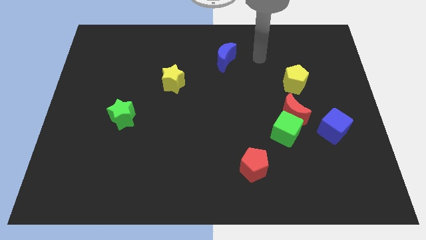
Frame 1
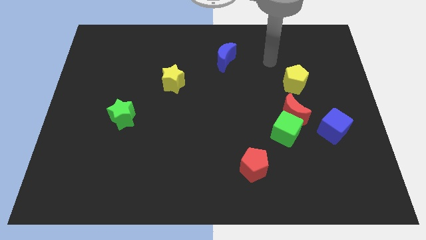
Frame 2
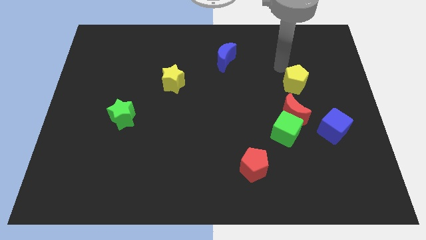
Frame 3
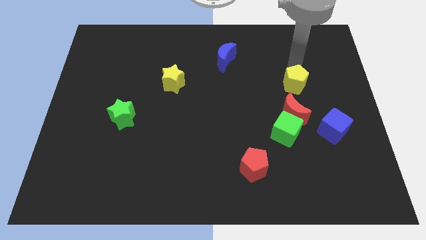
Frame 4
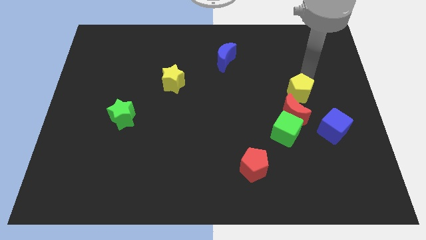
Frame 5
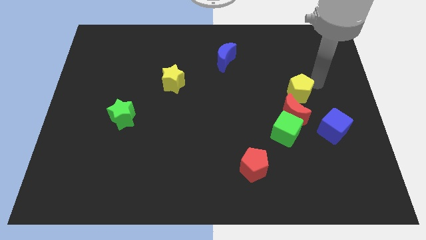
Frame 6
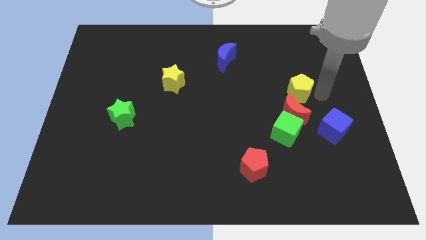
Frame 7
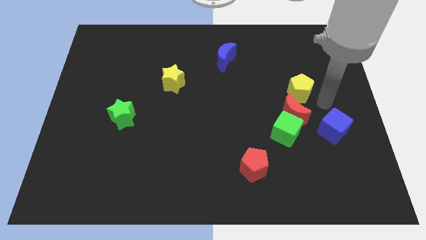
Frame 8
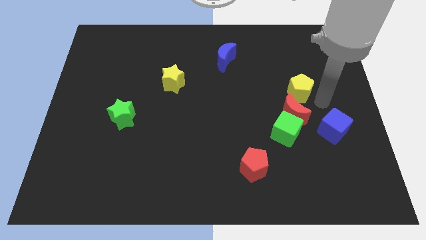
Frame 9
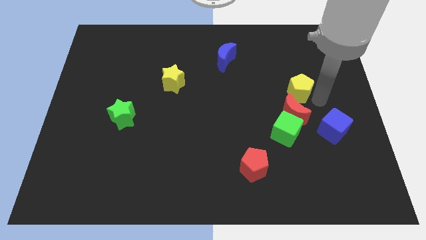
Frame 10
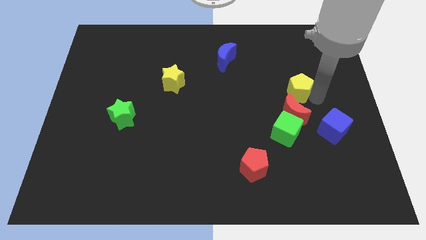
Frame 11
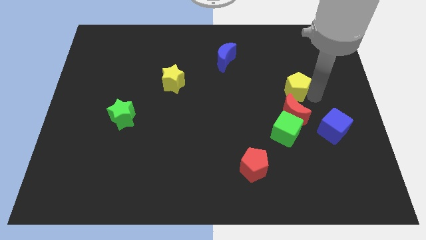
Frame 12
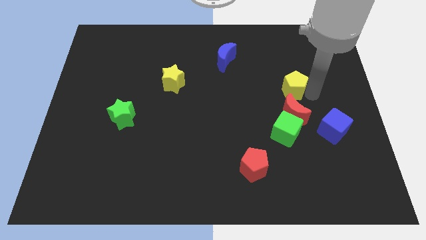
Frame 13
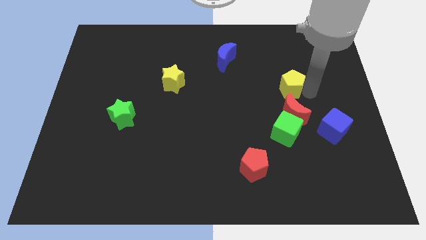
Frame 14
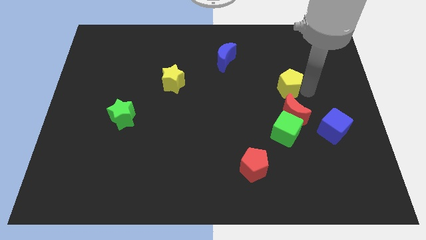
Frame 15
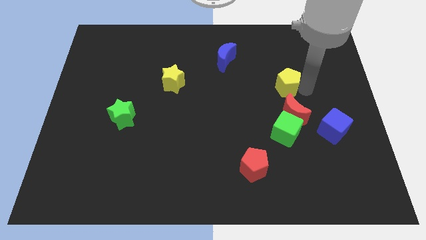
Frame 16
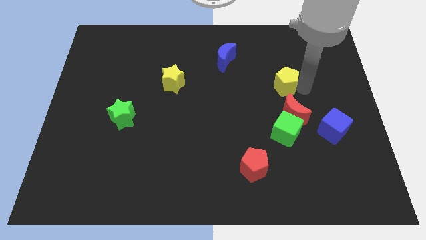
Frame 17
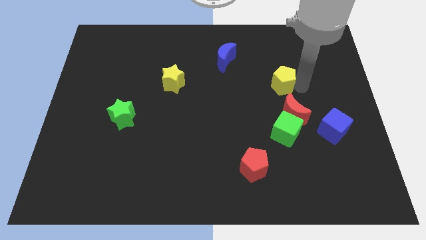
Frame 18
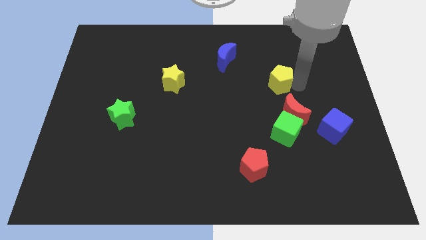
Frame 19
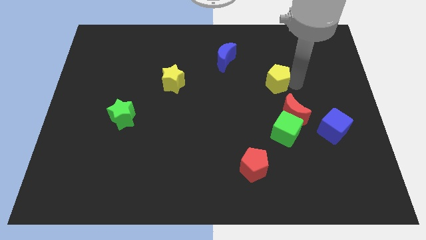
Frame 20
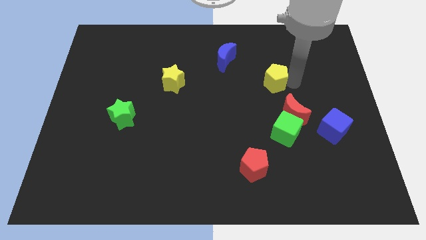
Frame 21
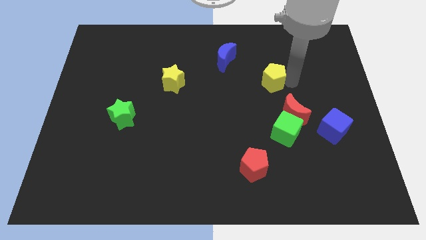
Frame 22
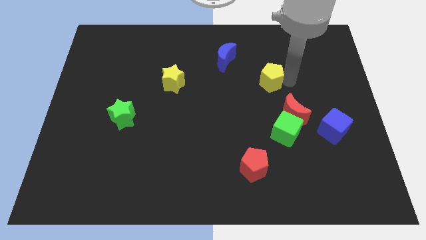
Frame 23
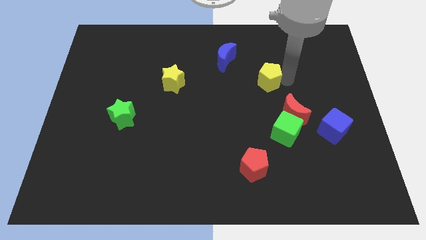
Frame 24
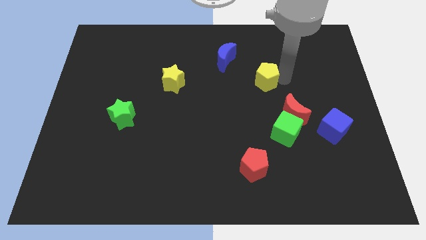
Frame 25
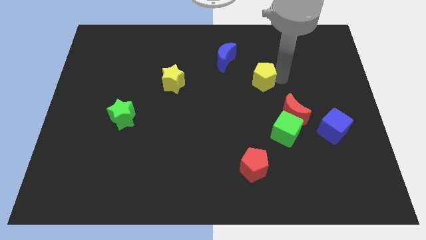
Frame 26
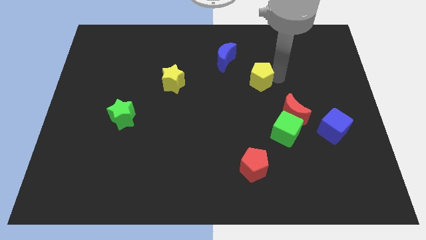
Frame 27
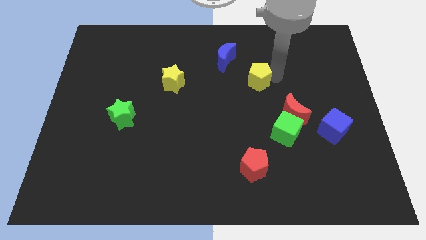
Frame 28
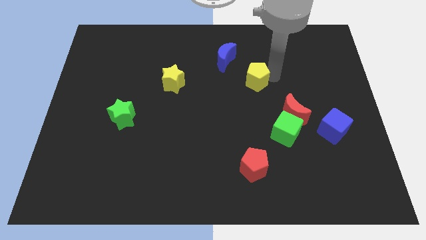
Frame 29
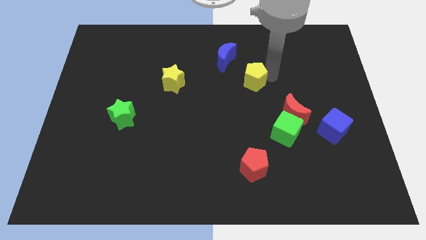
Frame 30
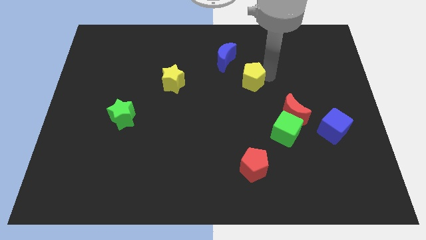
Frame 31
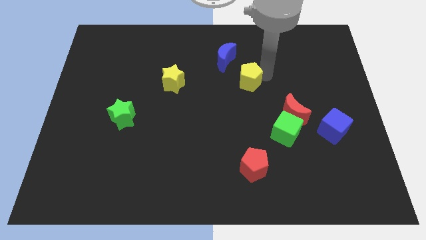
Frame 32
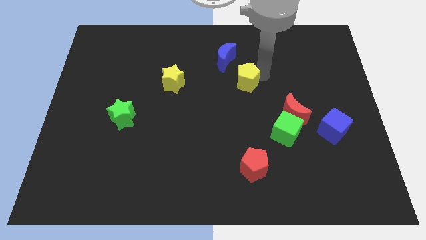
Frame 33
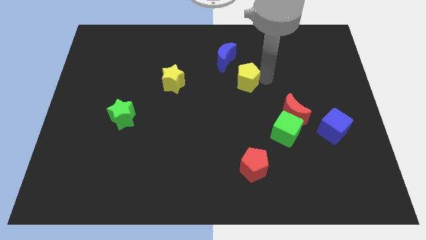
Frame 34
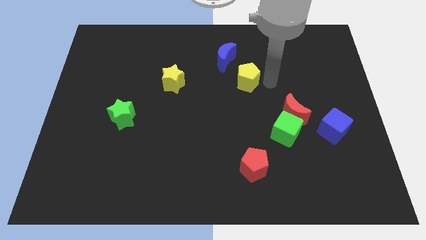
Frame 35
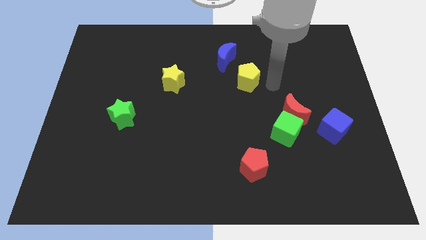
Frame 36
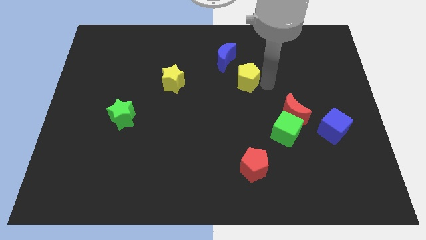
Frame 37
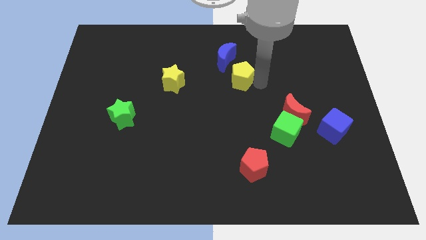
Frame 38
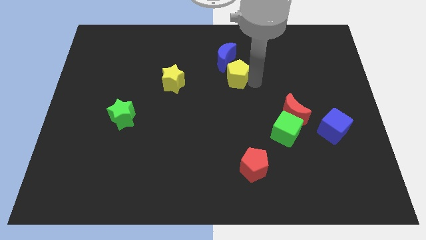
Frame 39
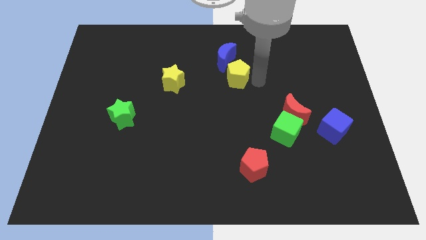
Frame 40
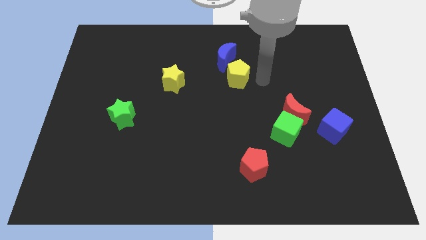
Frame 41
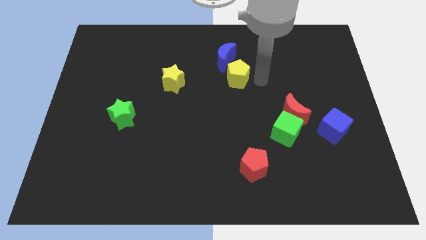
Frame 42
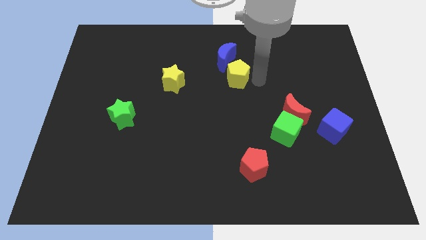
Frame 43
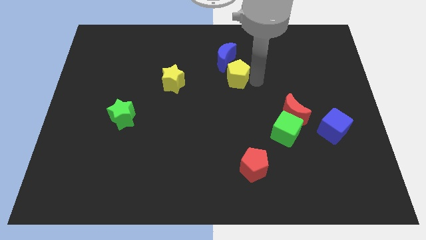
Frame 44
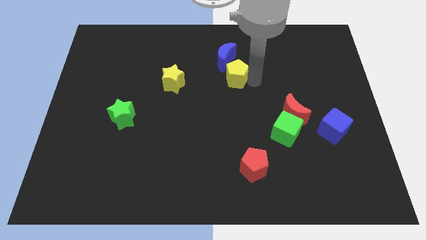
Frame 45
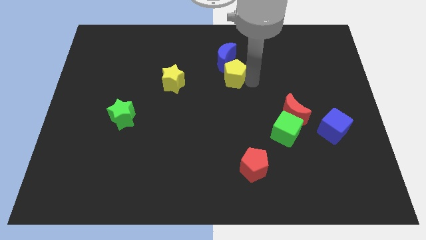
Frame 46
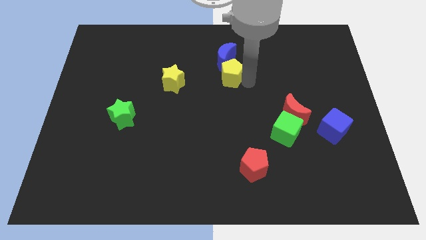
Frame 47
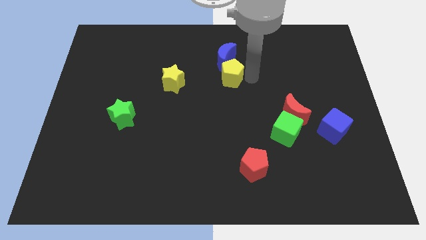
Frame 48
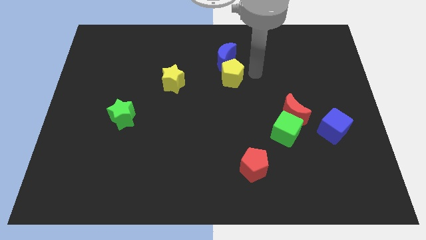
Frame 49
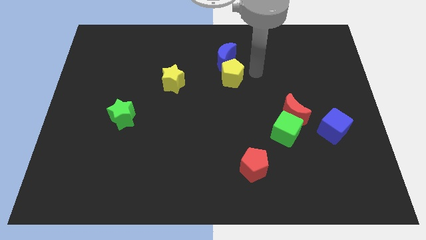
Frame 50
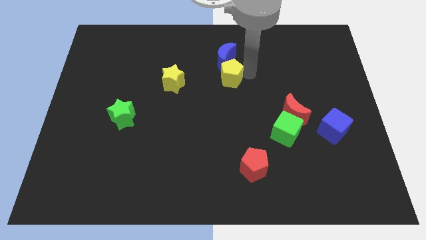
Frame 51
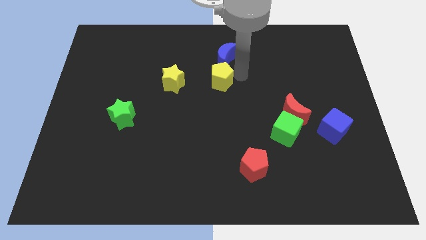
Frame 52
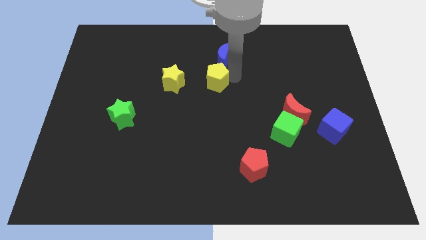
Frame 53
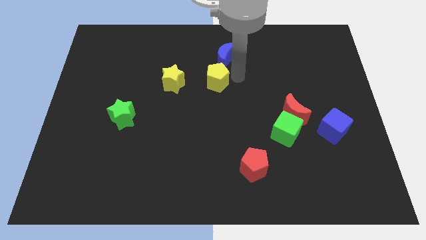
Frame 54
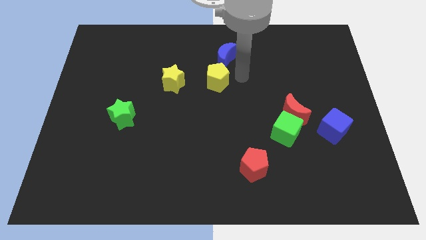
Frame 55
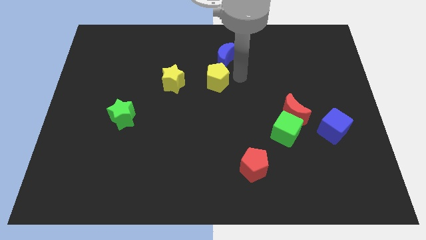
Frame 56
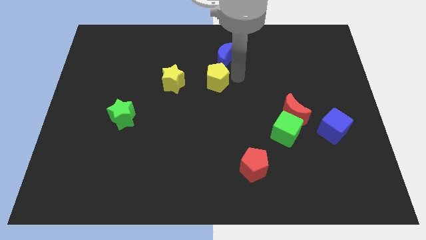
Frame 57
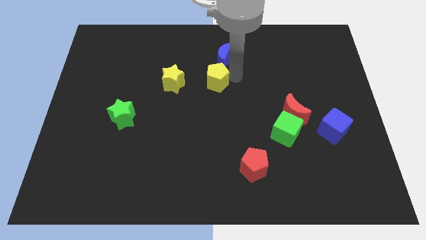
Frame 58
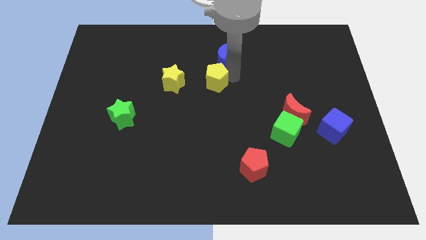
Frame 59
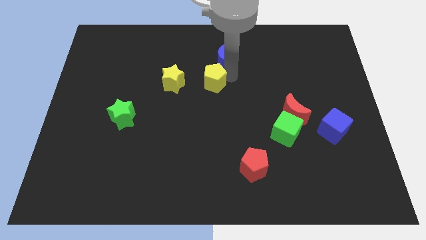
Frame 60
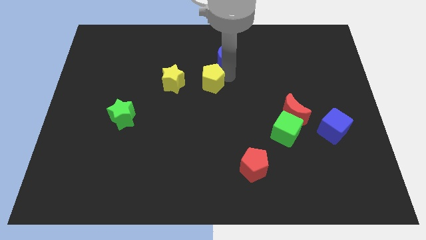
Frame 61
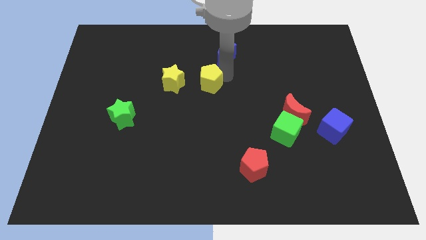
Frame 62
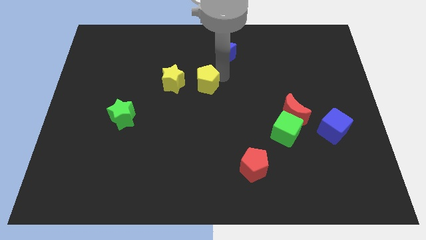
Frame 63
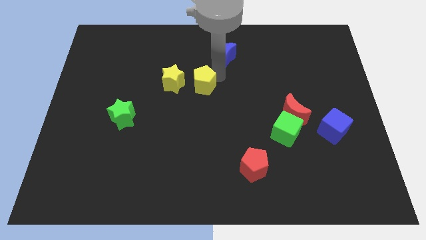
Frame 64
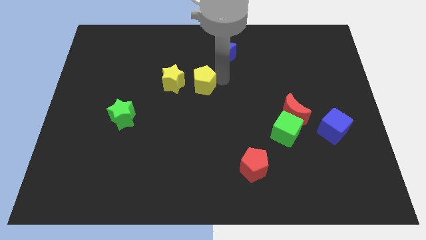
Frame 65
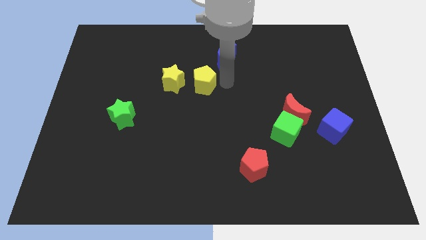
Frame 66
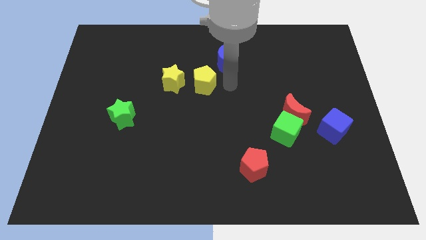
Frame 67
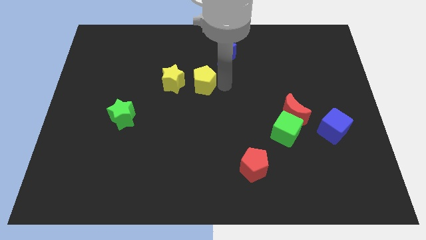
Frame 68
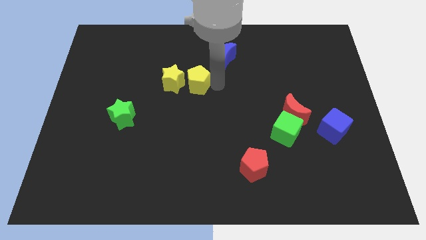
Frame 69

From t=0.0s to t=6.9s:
push the yellow pentagon close to the yellow star
